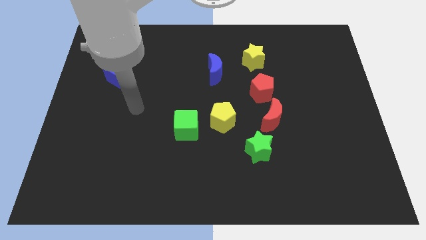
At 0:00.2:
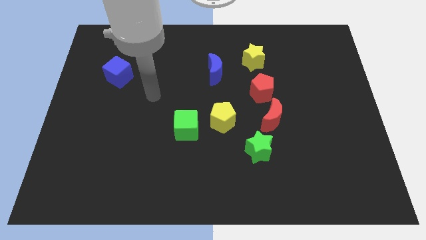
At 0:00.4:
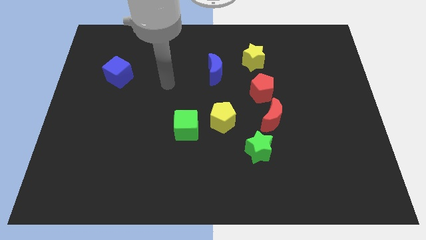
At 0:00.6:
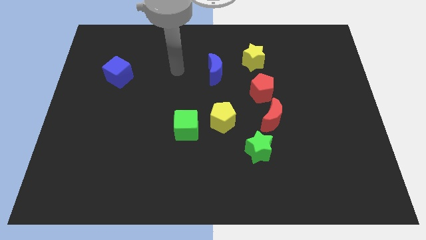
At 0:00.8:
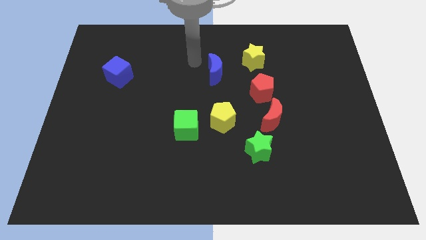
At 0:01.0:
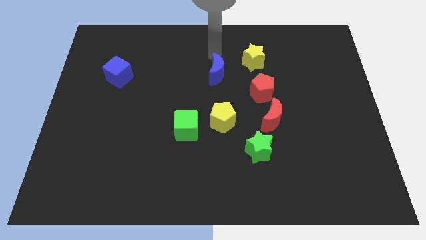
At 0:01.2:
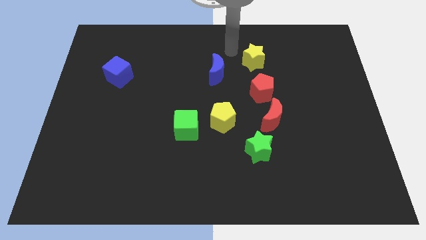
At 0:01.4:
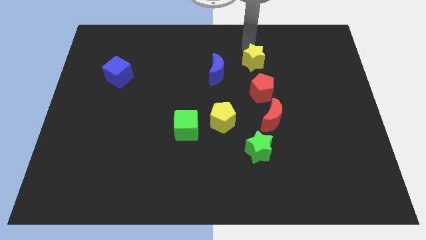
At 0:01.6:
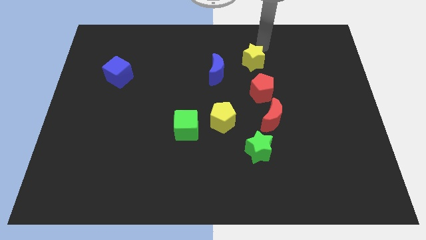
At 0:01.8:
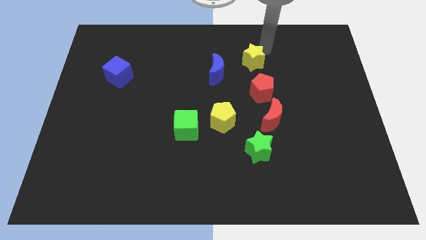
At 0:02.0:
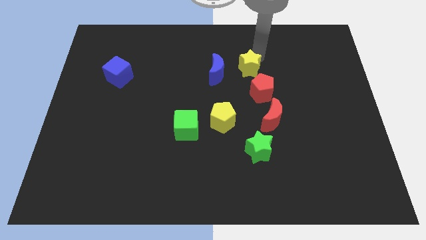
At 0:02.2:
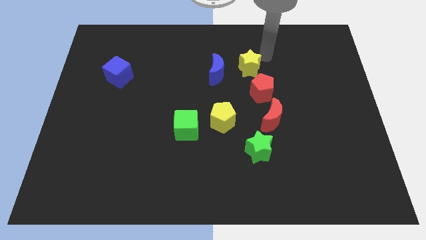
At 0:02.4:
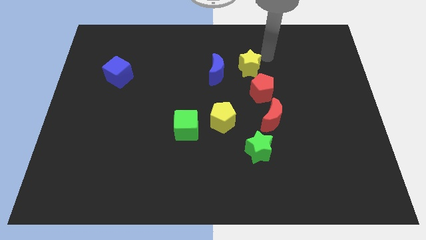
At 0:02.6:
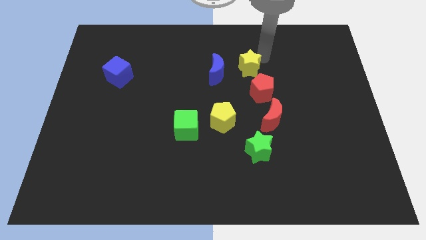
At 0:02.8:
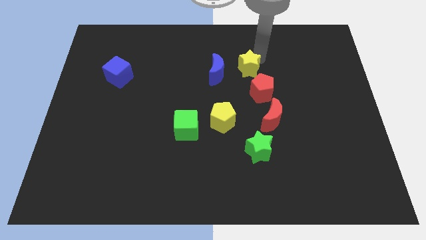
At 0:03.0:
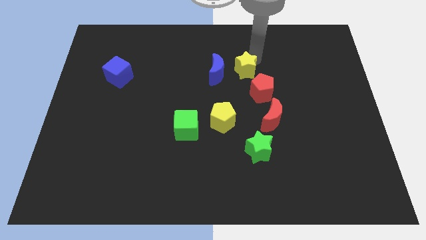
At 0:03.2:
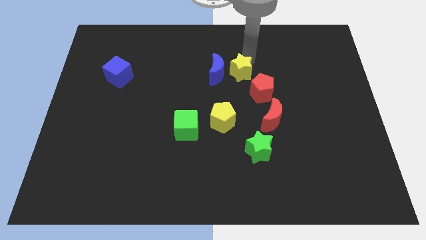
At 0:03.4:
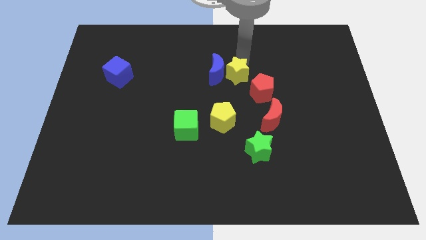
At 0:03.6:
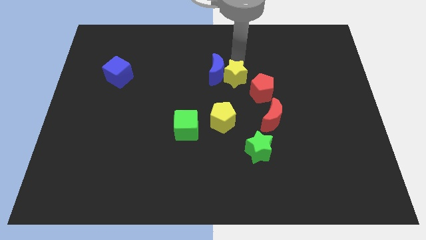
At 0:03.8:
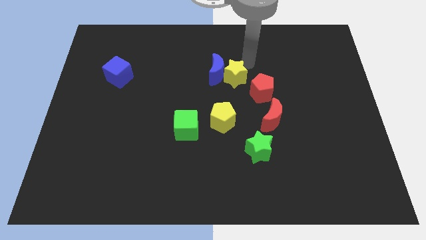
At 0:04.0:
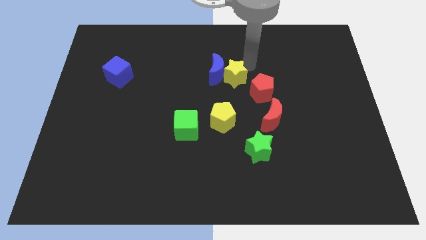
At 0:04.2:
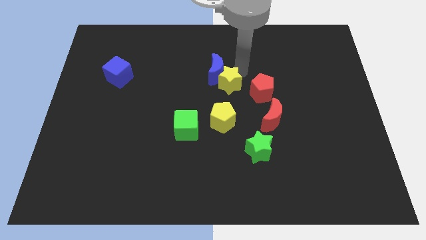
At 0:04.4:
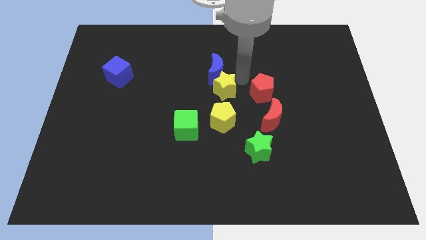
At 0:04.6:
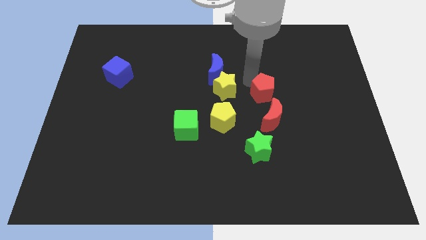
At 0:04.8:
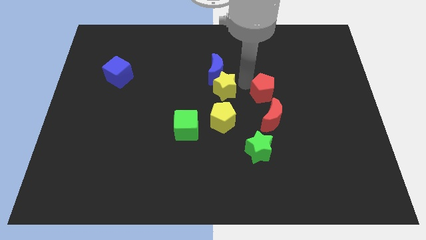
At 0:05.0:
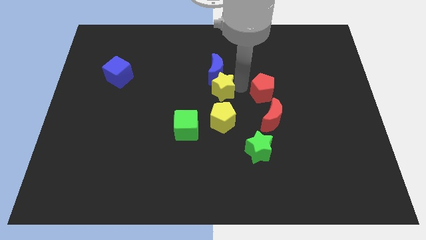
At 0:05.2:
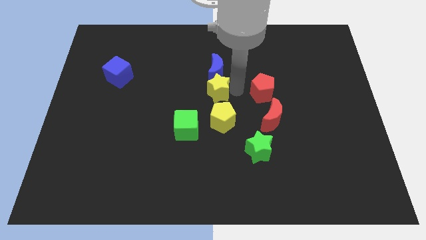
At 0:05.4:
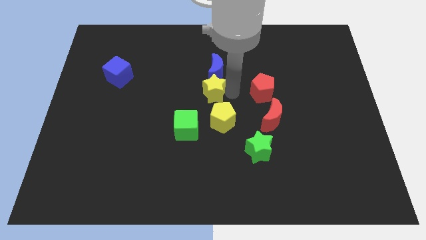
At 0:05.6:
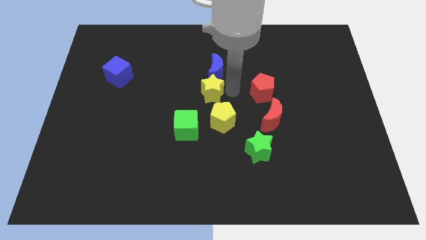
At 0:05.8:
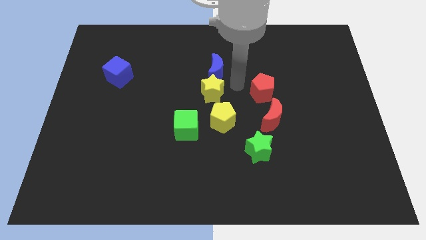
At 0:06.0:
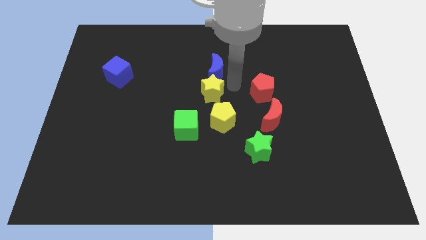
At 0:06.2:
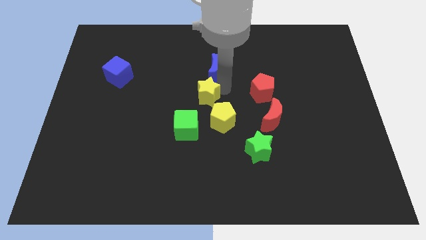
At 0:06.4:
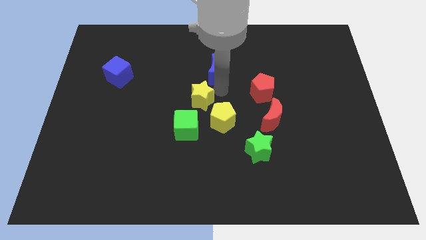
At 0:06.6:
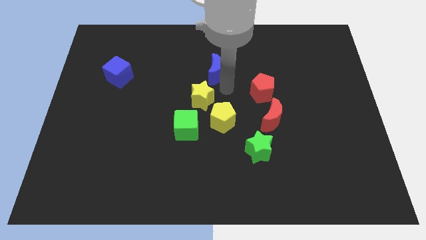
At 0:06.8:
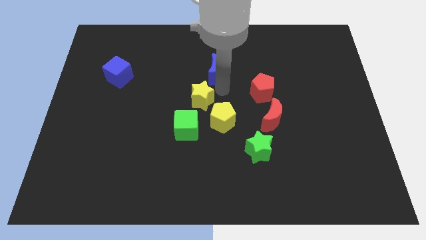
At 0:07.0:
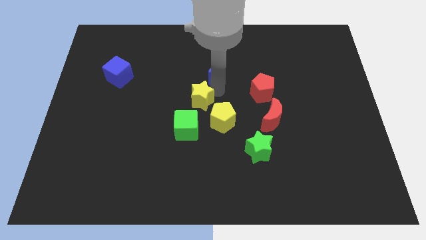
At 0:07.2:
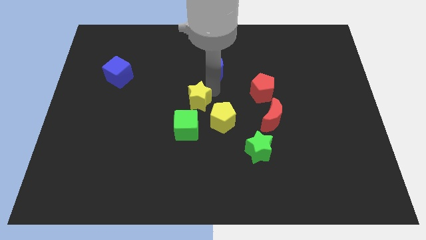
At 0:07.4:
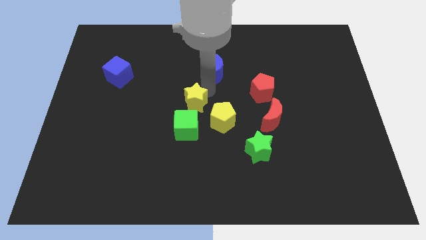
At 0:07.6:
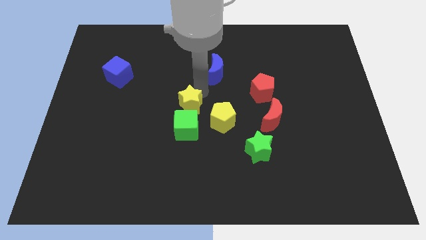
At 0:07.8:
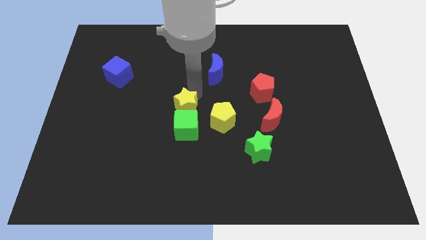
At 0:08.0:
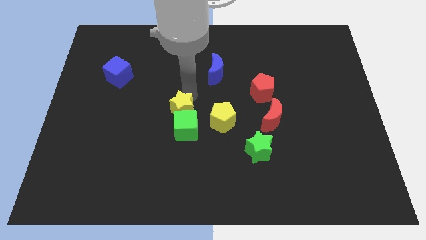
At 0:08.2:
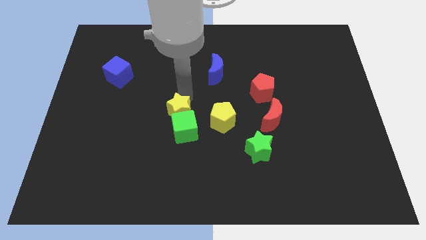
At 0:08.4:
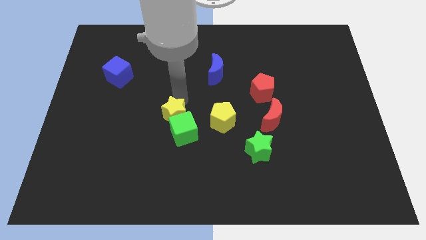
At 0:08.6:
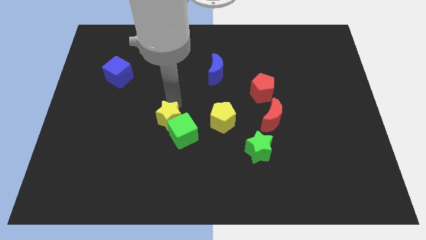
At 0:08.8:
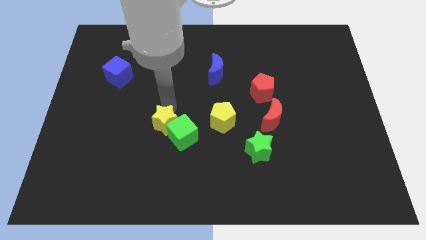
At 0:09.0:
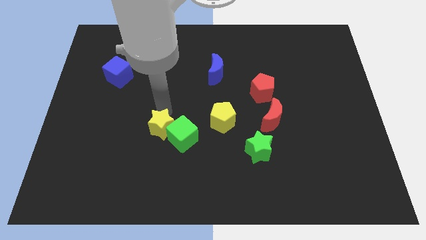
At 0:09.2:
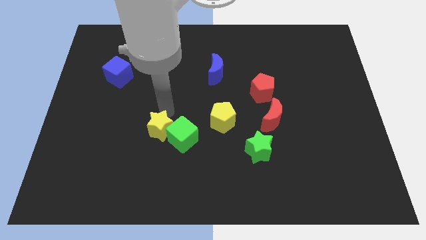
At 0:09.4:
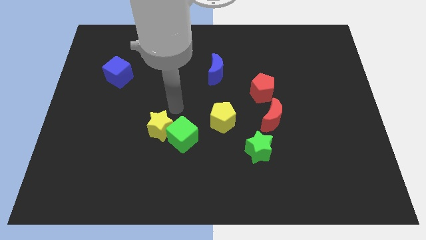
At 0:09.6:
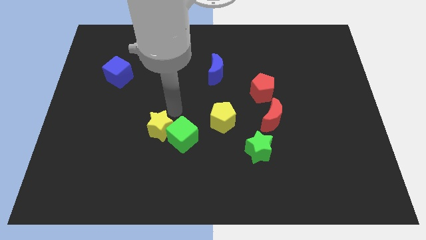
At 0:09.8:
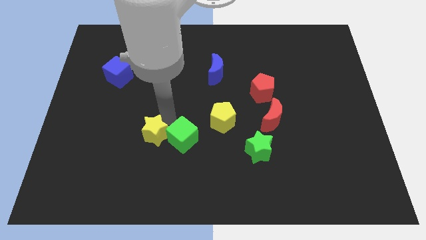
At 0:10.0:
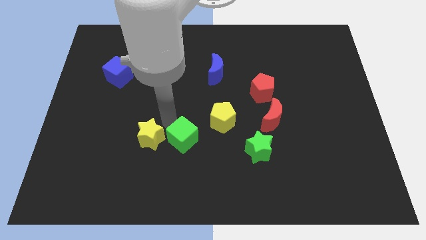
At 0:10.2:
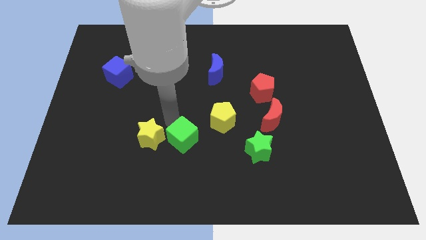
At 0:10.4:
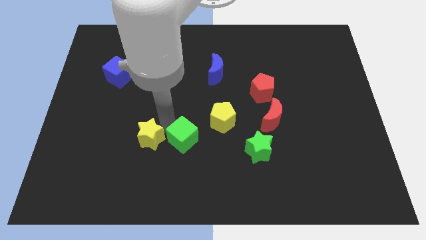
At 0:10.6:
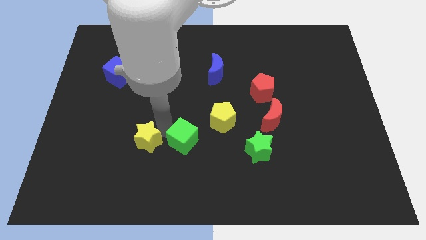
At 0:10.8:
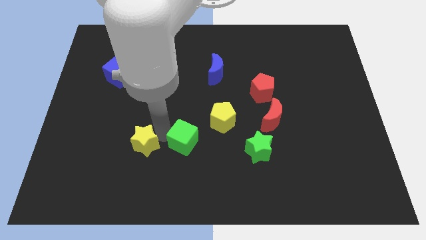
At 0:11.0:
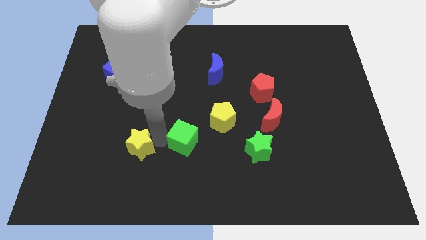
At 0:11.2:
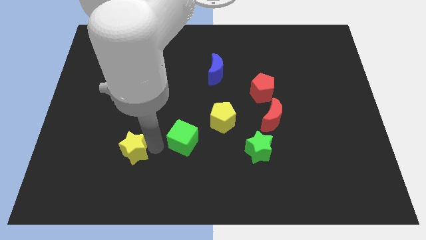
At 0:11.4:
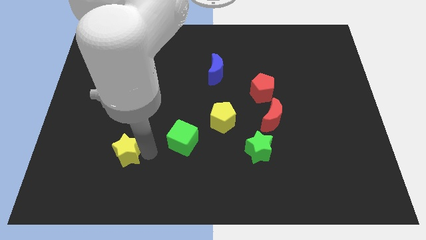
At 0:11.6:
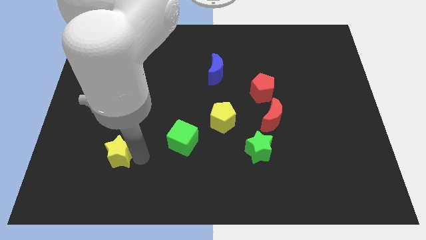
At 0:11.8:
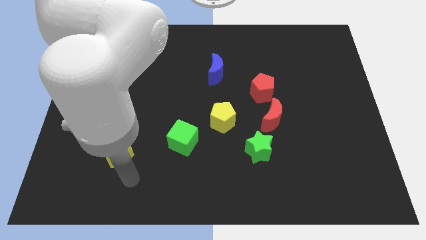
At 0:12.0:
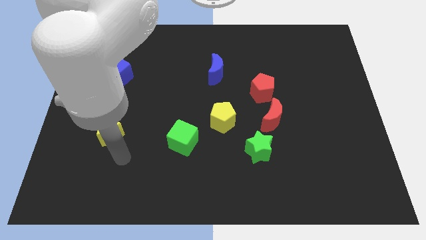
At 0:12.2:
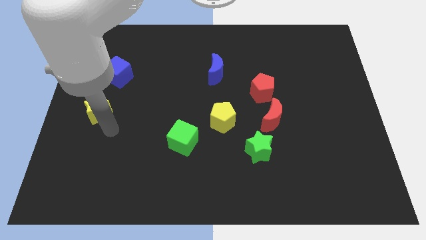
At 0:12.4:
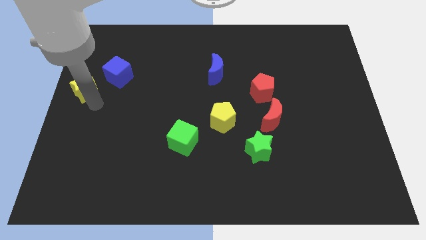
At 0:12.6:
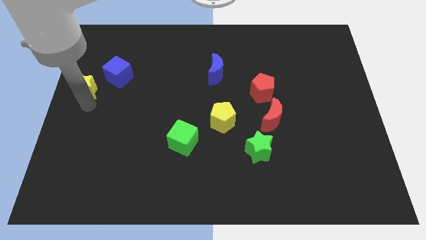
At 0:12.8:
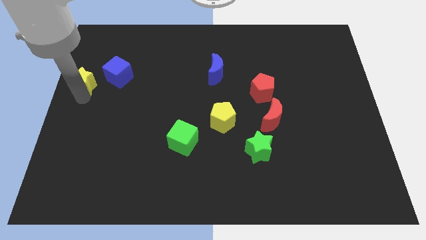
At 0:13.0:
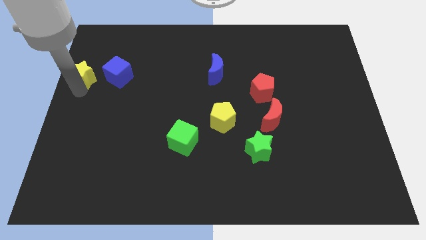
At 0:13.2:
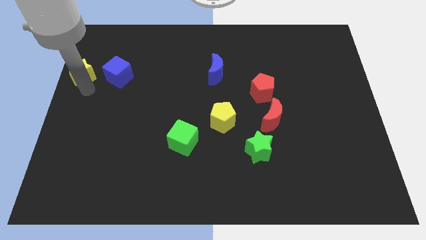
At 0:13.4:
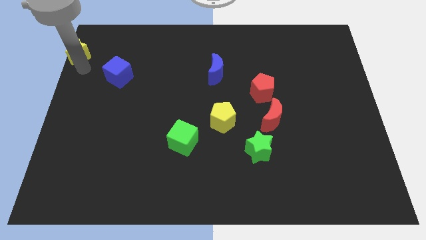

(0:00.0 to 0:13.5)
slide the yellow star to the top left

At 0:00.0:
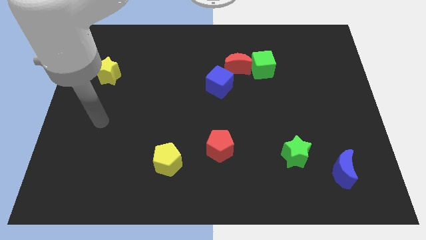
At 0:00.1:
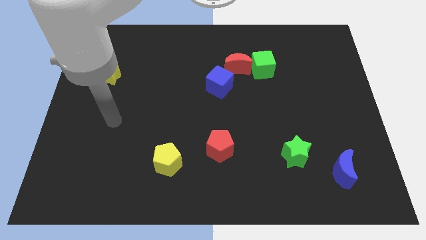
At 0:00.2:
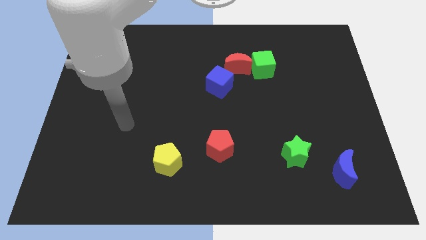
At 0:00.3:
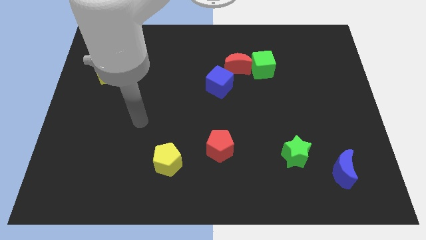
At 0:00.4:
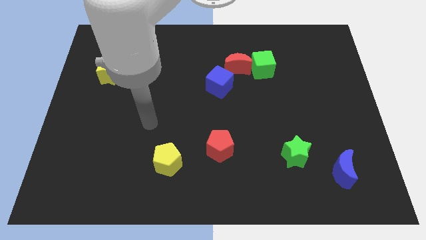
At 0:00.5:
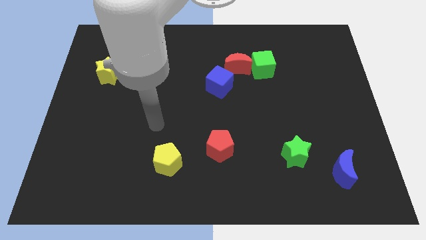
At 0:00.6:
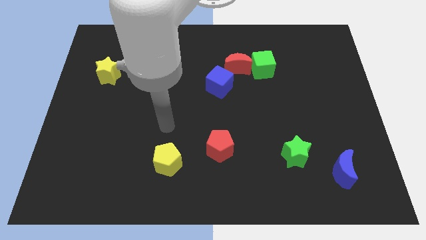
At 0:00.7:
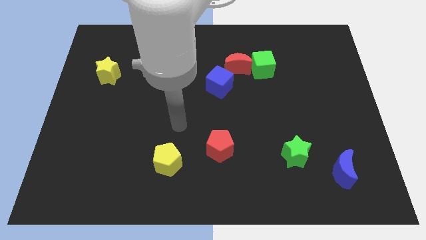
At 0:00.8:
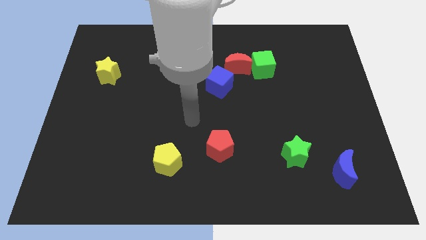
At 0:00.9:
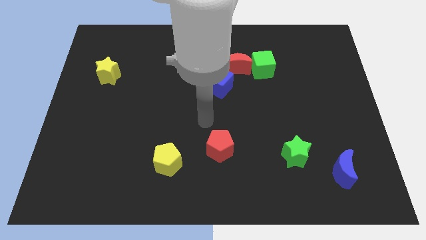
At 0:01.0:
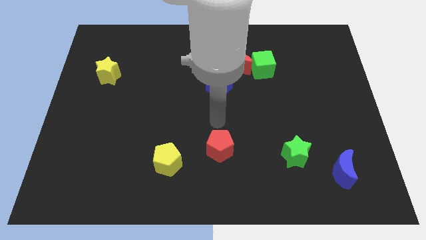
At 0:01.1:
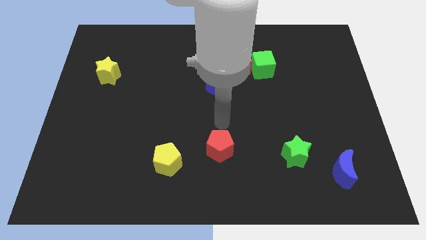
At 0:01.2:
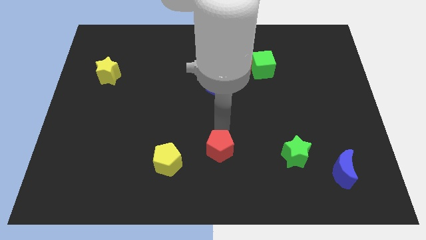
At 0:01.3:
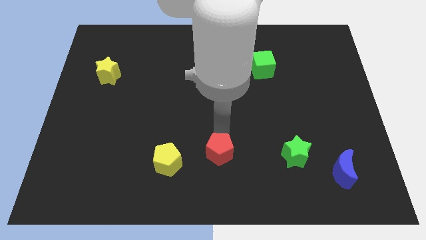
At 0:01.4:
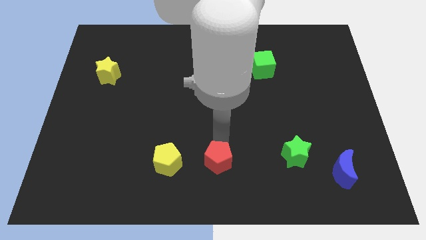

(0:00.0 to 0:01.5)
slide the red pentagon to the bottom
